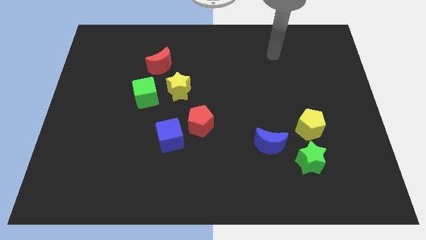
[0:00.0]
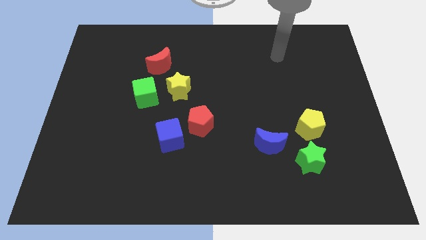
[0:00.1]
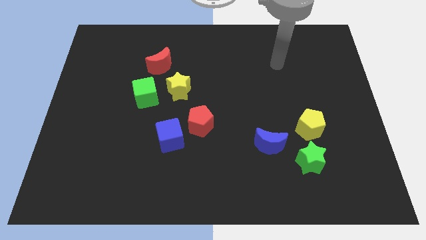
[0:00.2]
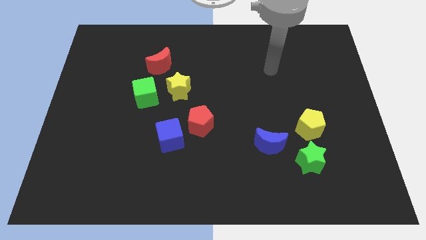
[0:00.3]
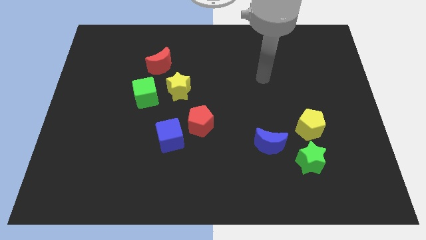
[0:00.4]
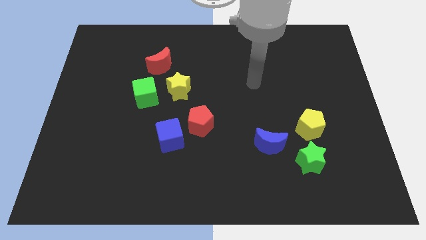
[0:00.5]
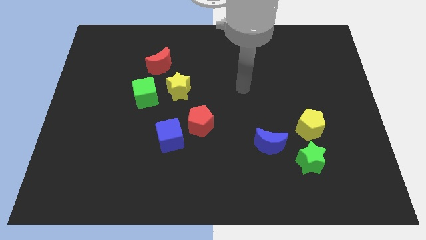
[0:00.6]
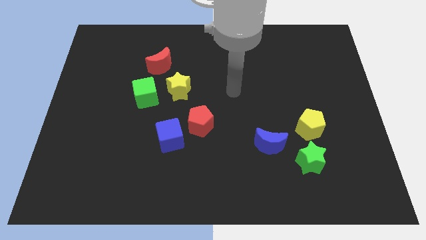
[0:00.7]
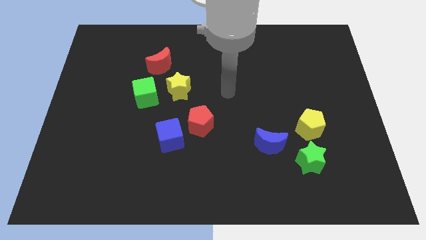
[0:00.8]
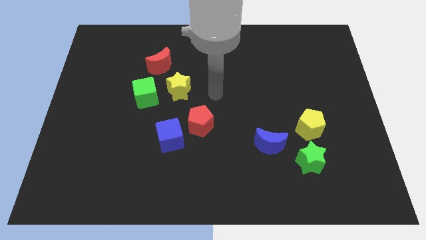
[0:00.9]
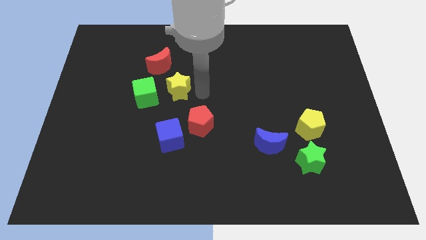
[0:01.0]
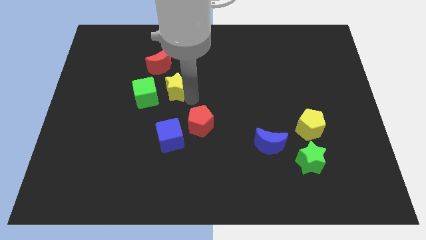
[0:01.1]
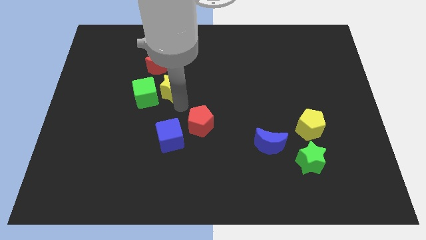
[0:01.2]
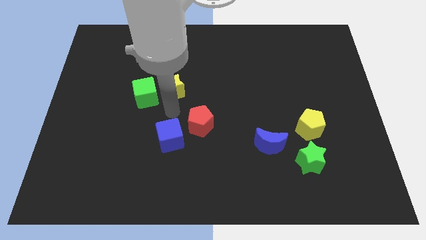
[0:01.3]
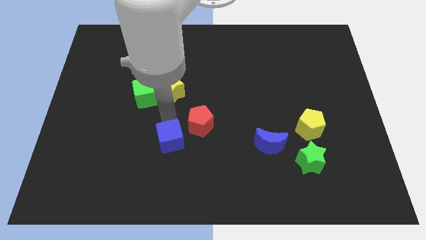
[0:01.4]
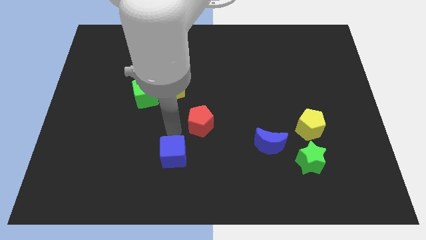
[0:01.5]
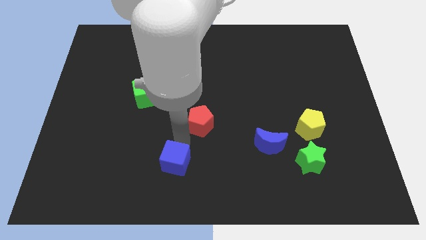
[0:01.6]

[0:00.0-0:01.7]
move the red pentagon away from the blue cube

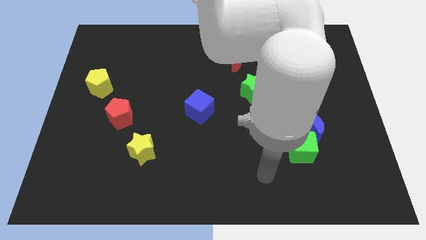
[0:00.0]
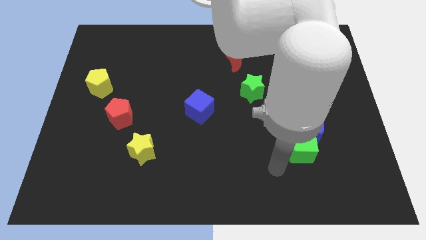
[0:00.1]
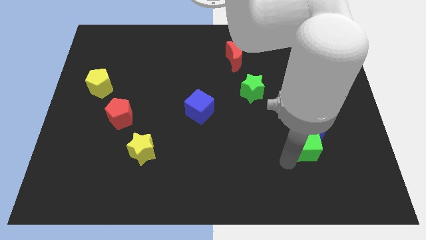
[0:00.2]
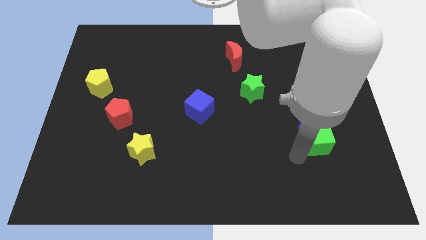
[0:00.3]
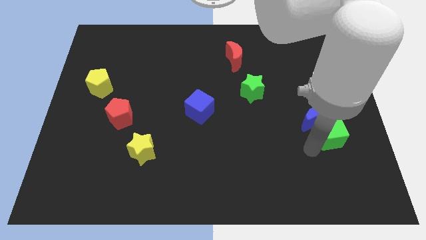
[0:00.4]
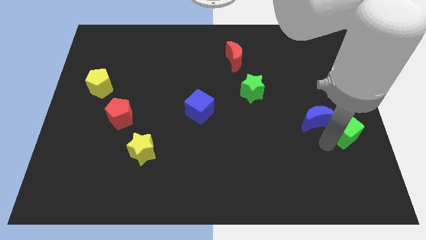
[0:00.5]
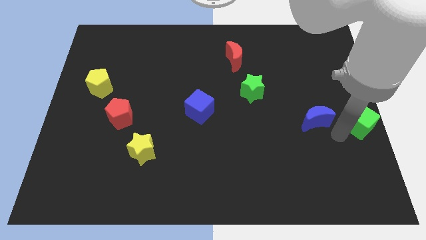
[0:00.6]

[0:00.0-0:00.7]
separate the blue moon from the green cube

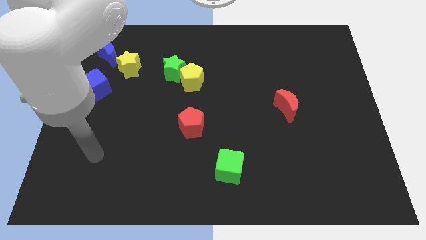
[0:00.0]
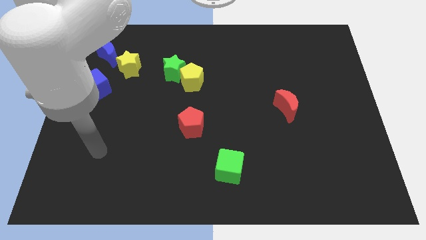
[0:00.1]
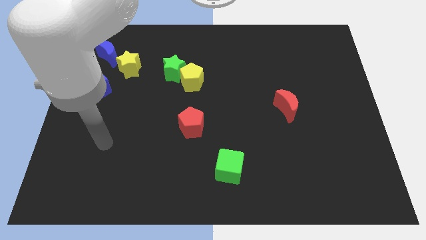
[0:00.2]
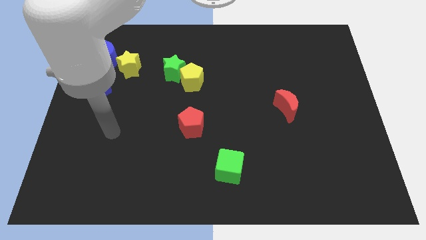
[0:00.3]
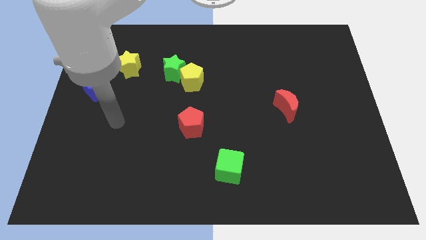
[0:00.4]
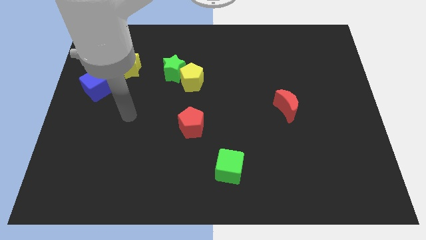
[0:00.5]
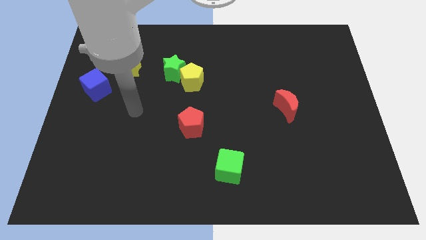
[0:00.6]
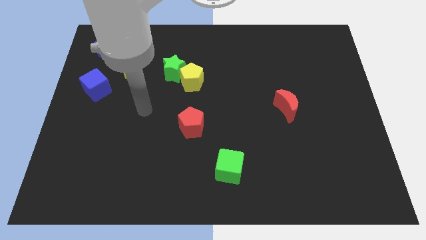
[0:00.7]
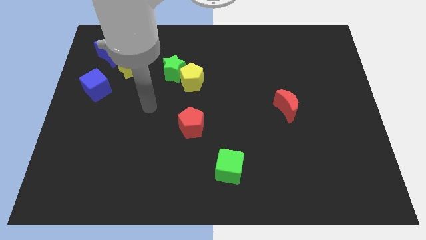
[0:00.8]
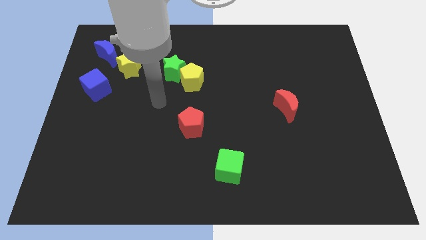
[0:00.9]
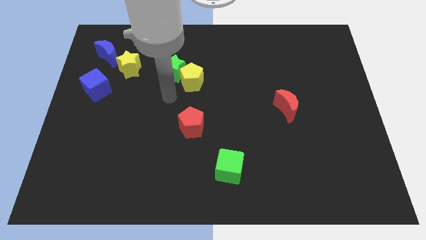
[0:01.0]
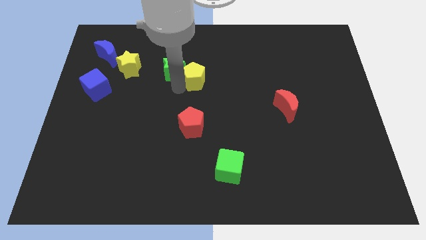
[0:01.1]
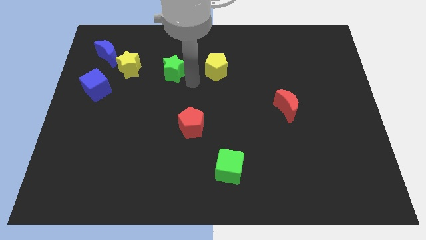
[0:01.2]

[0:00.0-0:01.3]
separate the green star from the yellow pentagon

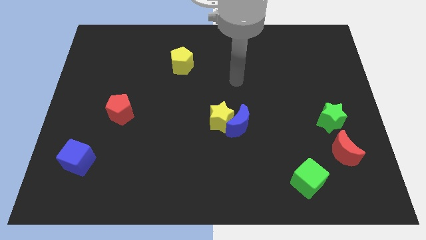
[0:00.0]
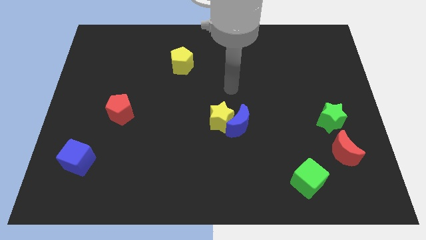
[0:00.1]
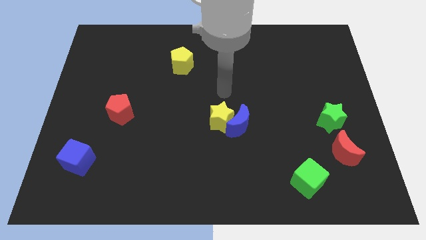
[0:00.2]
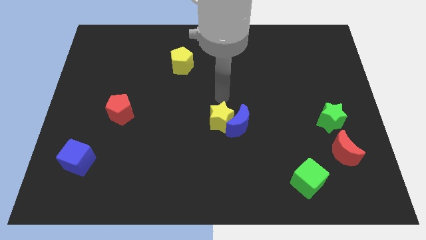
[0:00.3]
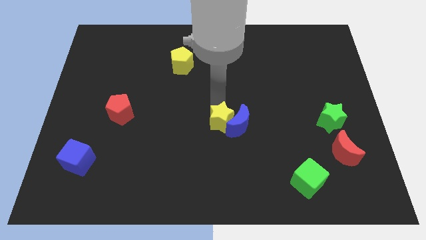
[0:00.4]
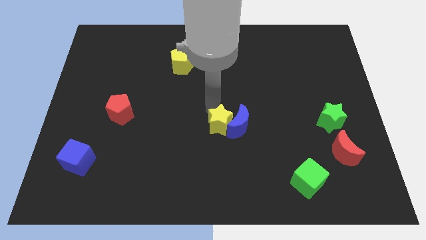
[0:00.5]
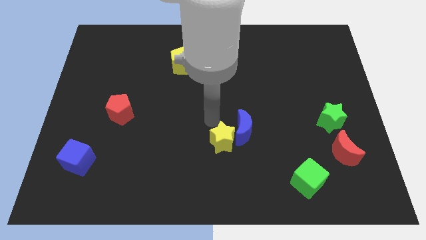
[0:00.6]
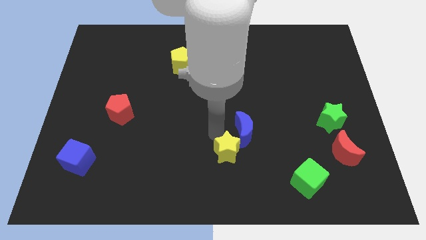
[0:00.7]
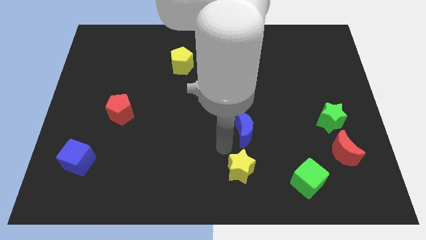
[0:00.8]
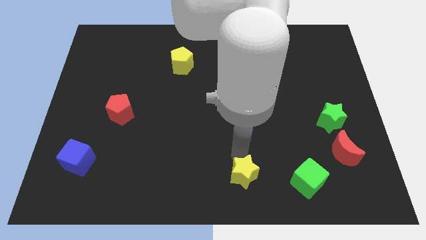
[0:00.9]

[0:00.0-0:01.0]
move the blue moon away from the yellow star

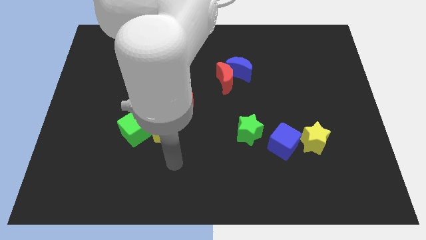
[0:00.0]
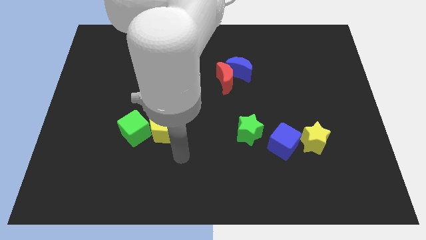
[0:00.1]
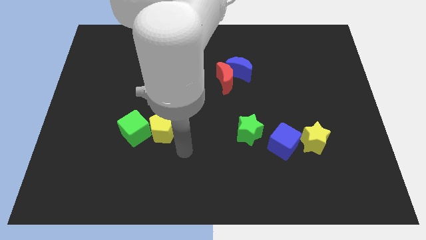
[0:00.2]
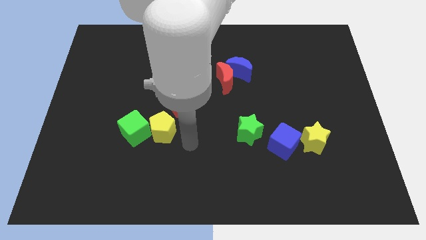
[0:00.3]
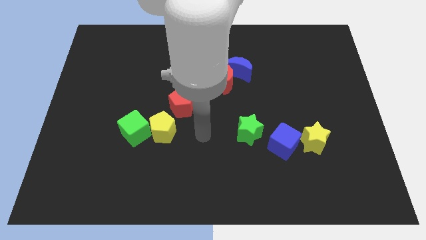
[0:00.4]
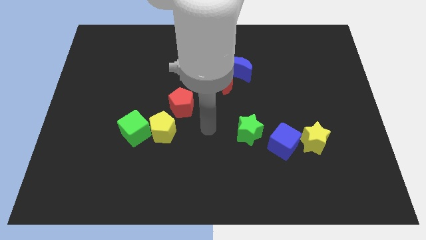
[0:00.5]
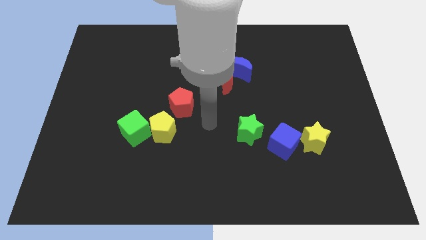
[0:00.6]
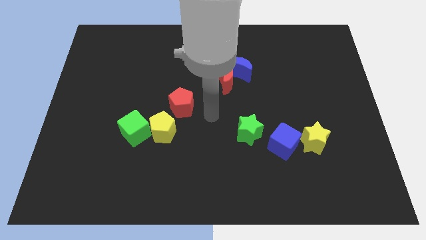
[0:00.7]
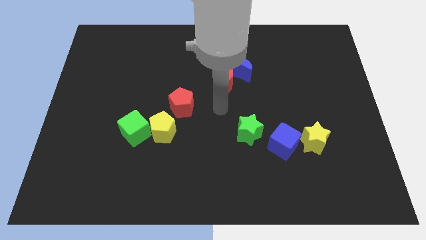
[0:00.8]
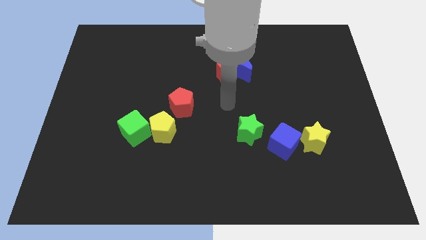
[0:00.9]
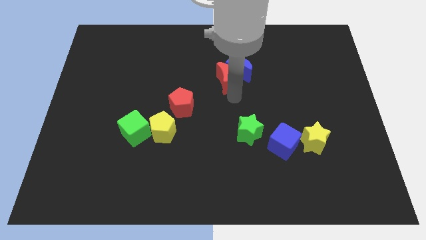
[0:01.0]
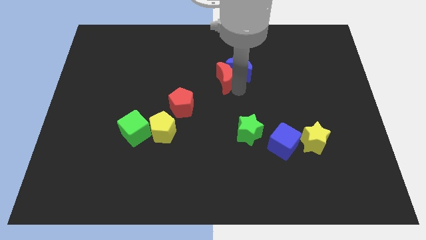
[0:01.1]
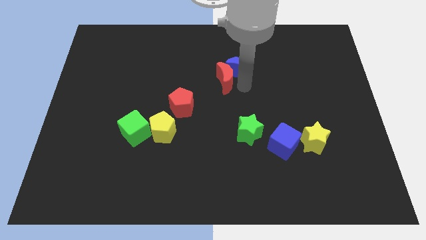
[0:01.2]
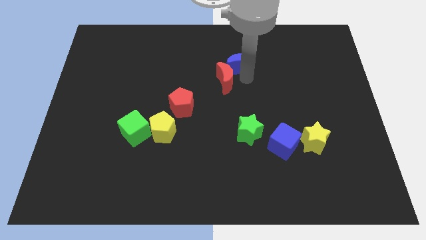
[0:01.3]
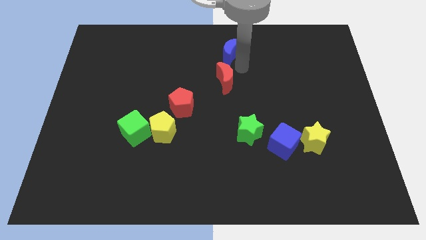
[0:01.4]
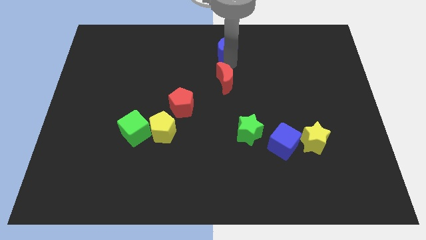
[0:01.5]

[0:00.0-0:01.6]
move the red moon away from the blue moon

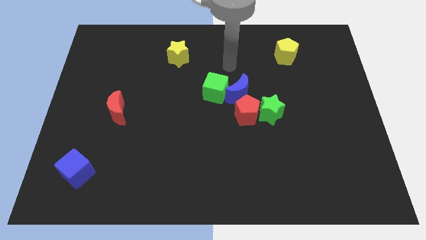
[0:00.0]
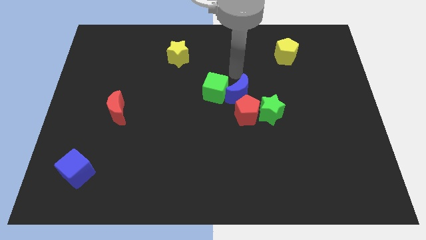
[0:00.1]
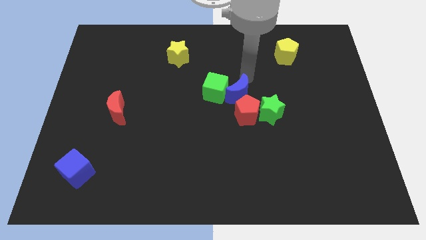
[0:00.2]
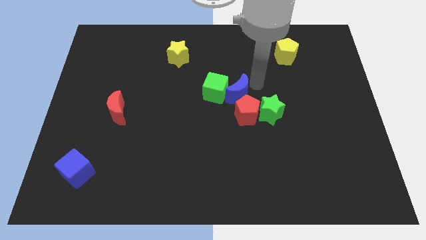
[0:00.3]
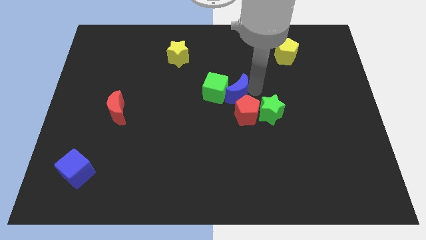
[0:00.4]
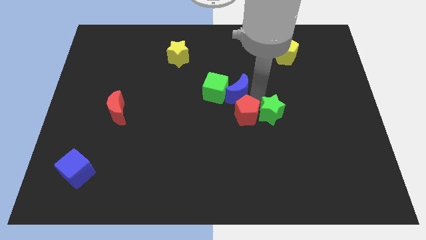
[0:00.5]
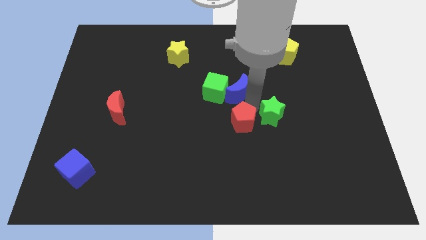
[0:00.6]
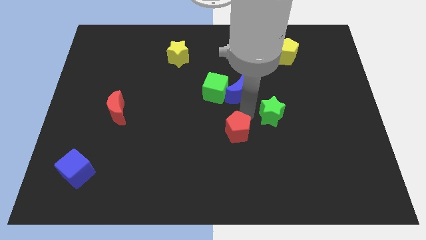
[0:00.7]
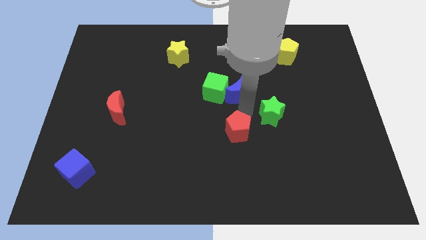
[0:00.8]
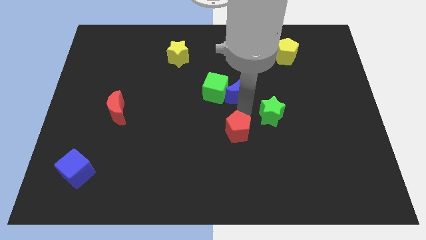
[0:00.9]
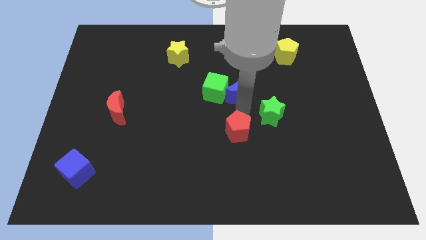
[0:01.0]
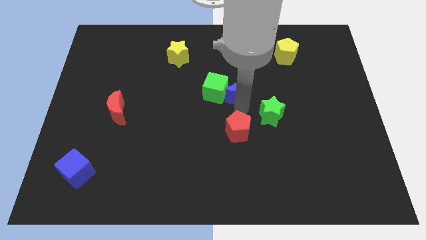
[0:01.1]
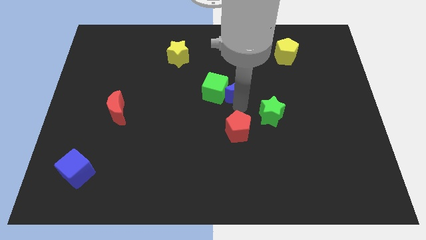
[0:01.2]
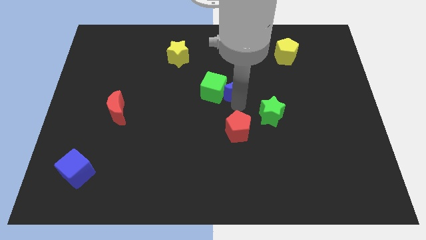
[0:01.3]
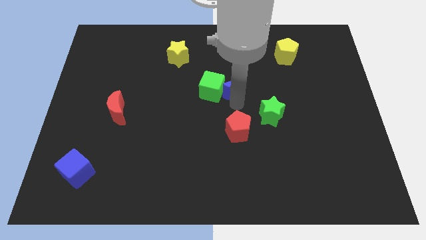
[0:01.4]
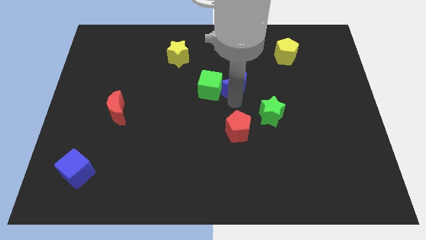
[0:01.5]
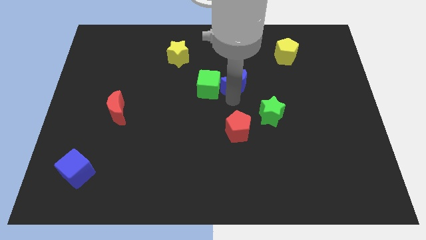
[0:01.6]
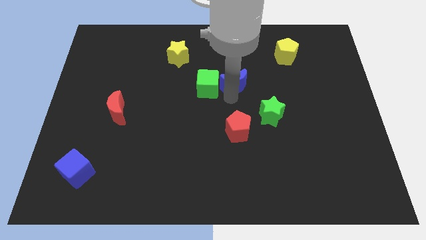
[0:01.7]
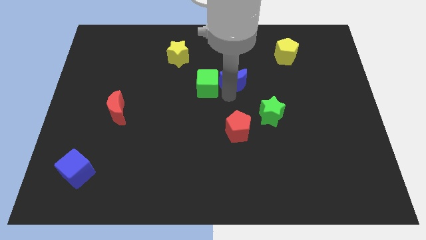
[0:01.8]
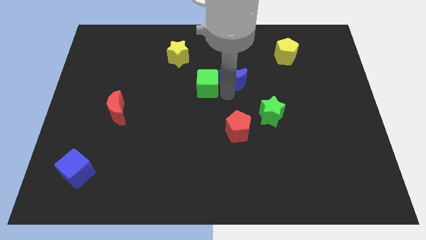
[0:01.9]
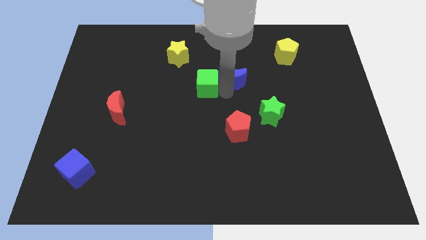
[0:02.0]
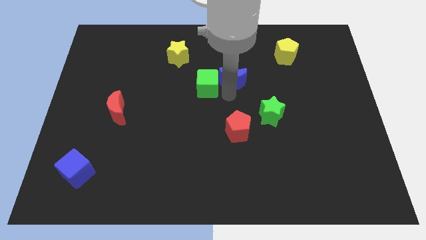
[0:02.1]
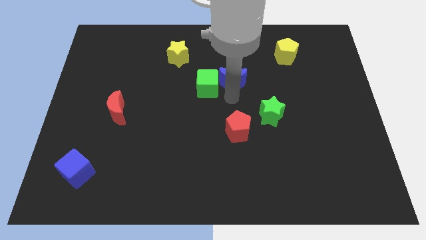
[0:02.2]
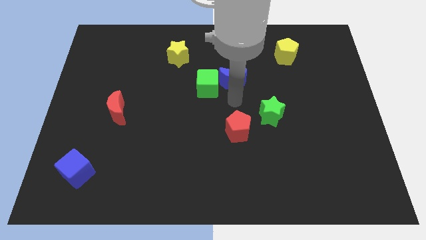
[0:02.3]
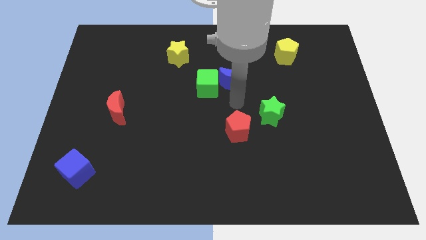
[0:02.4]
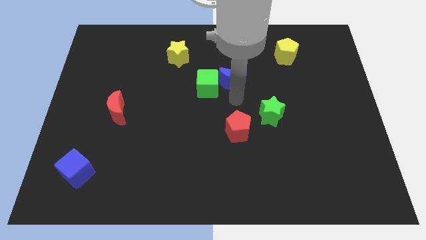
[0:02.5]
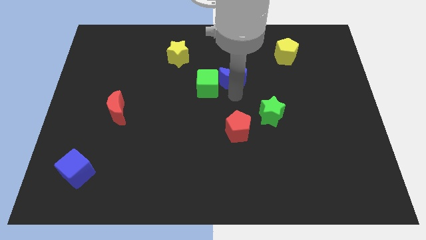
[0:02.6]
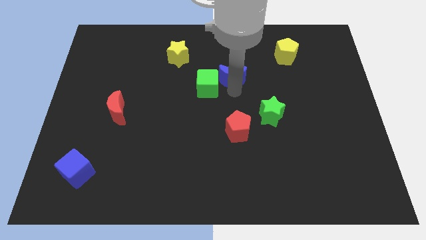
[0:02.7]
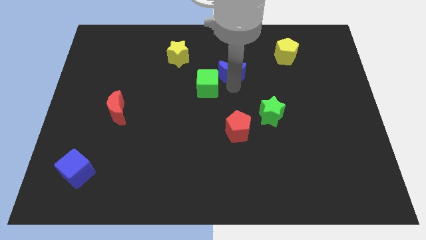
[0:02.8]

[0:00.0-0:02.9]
separate the blue moon from the green cube, red pentagon, and green star
